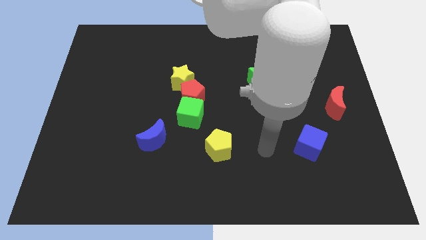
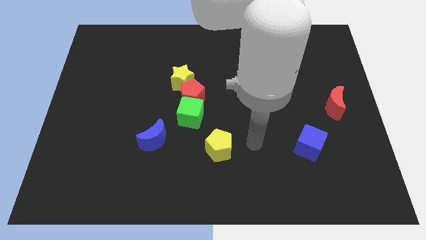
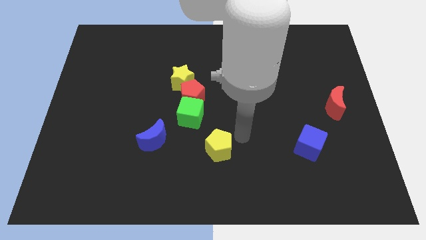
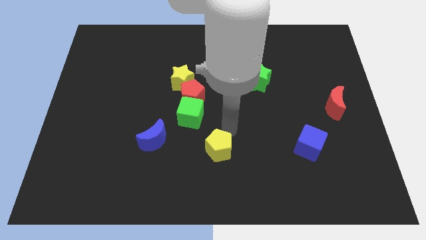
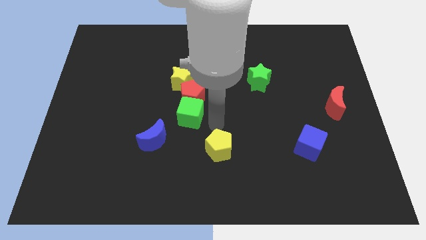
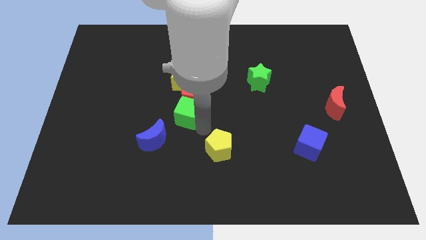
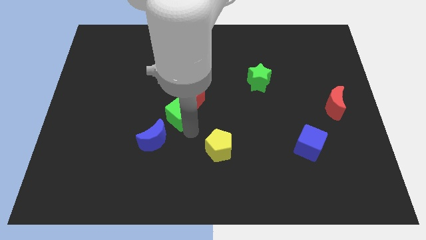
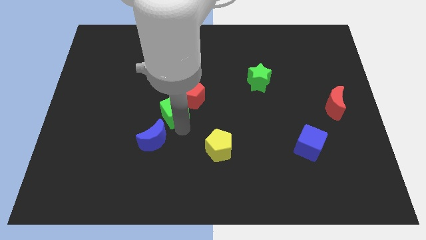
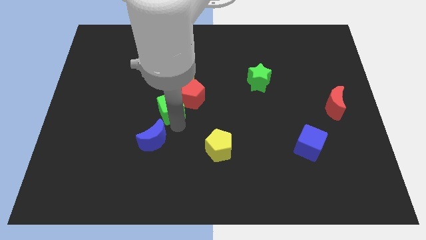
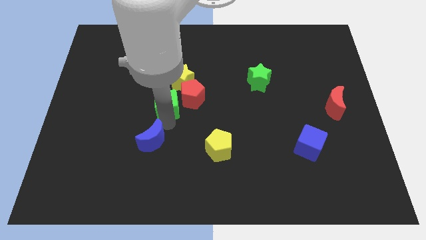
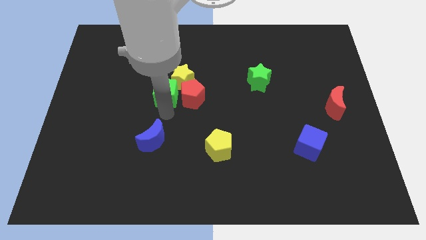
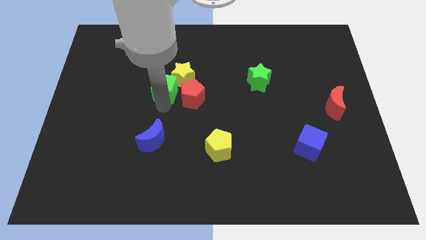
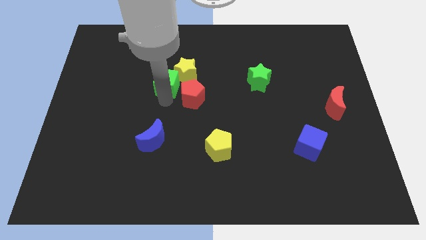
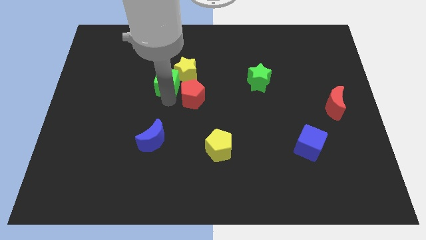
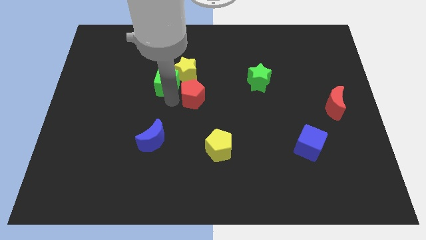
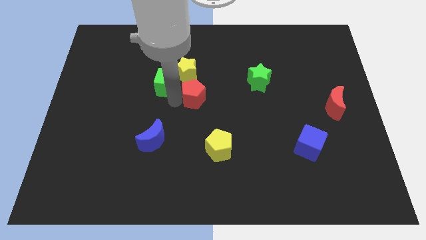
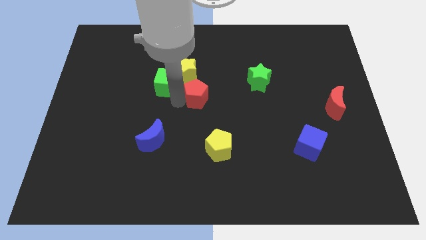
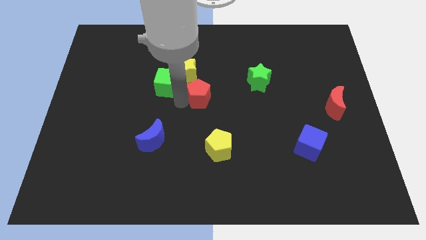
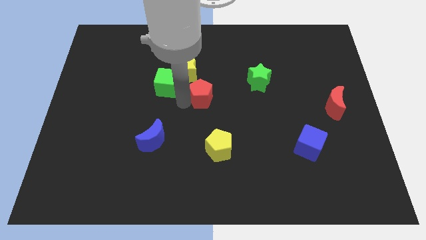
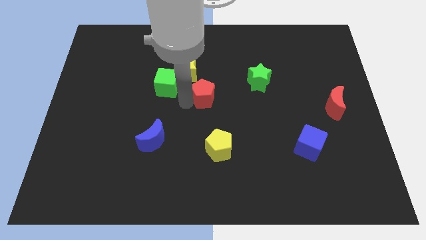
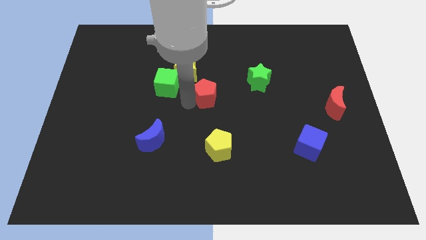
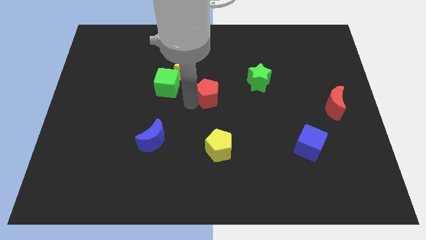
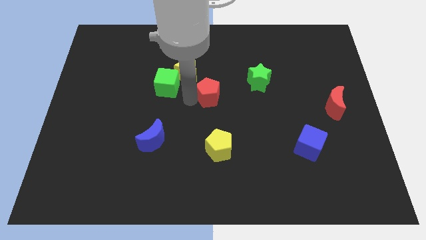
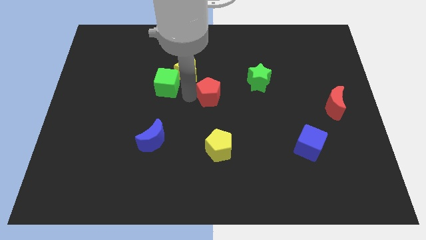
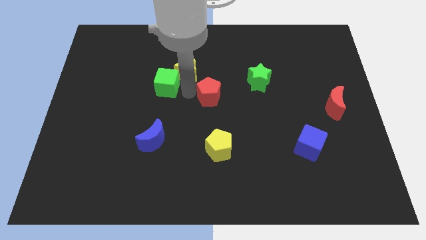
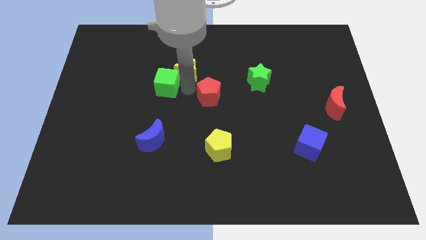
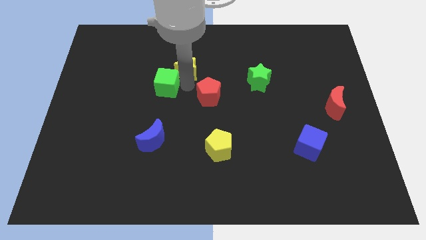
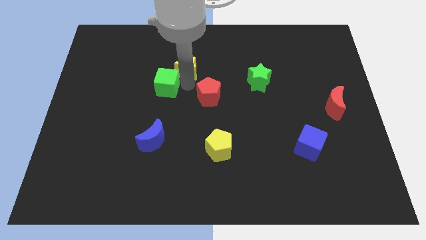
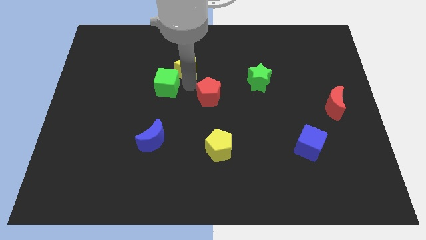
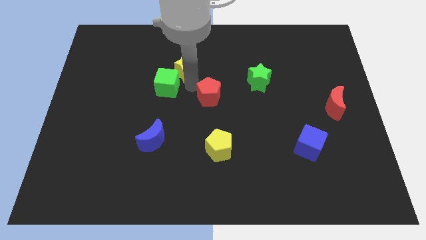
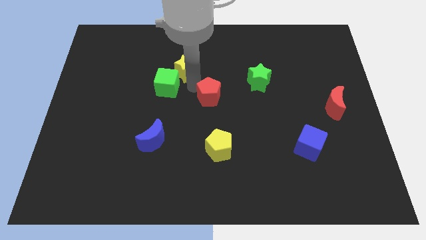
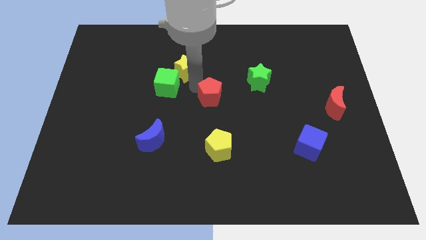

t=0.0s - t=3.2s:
separate the red pentagon from the green cube and yellow star

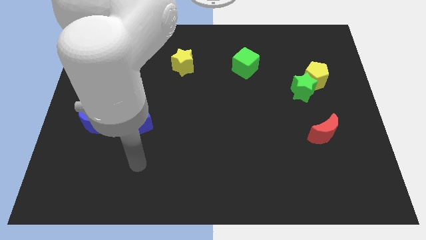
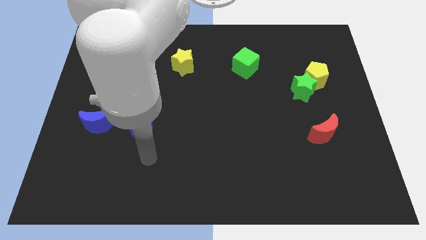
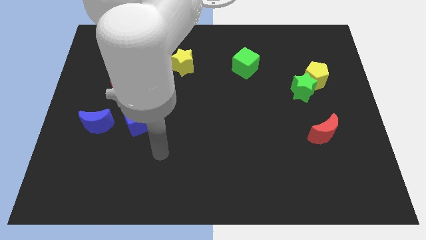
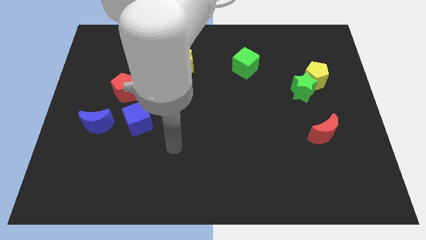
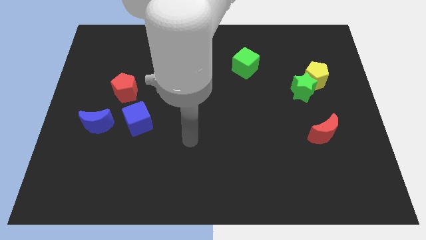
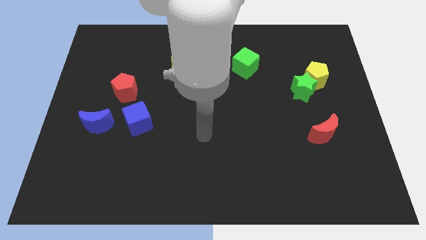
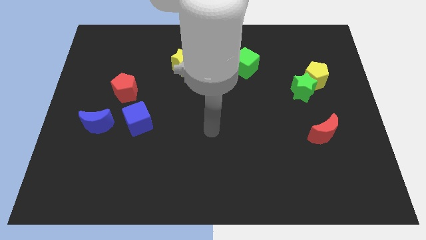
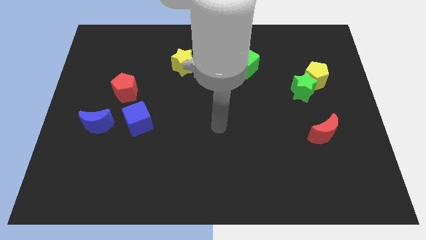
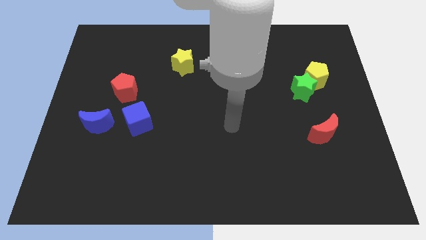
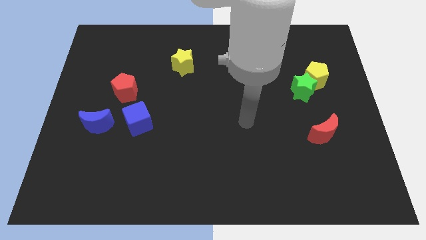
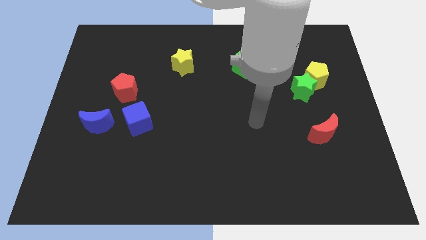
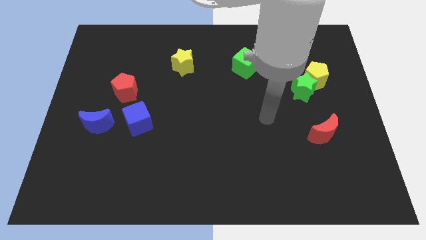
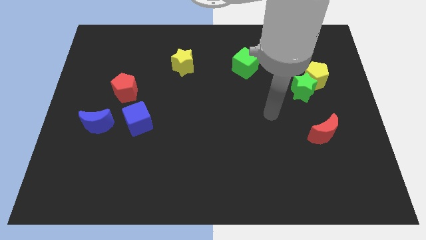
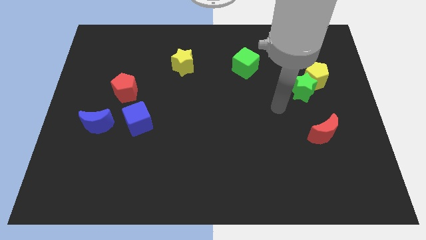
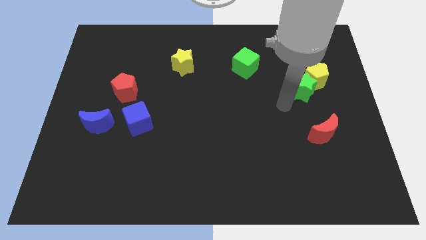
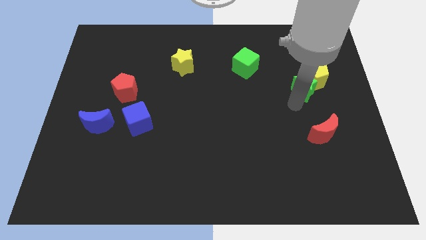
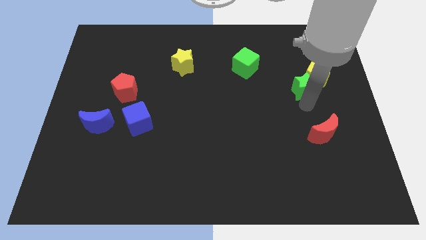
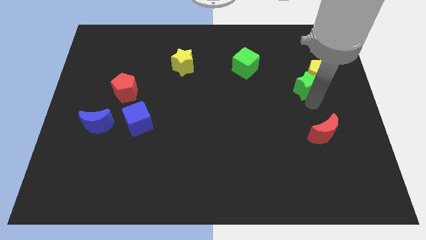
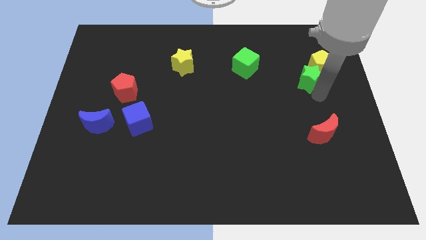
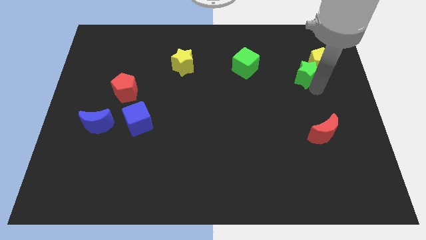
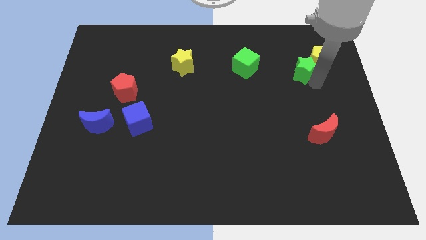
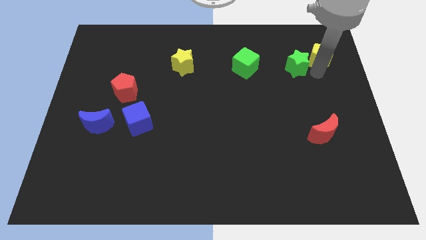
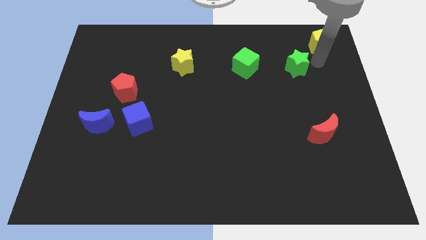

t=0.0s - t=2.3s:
separate the green star from the yellow pentagon

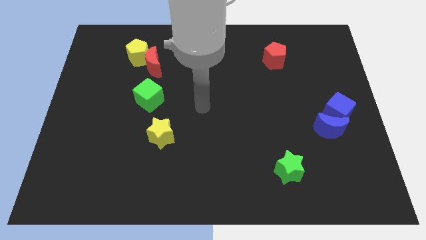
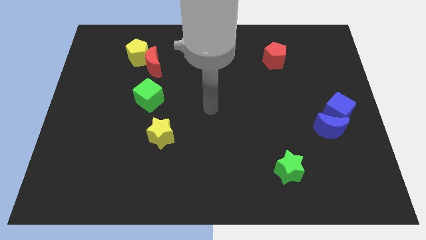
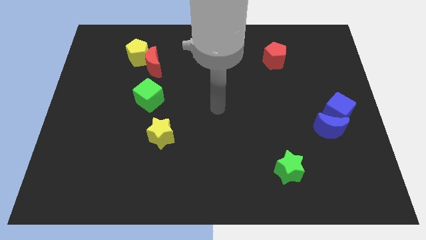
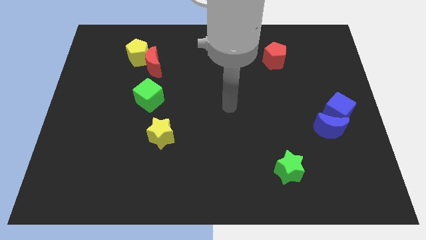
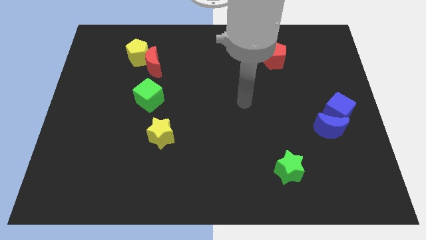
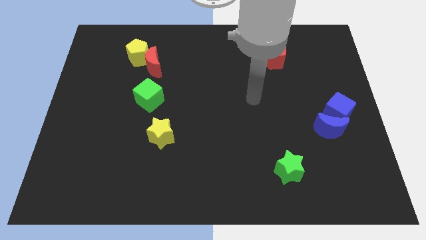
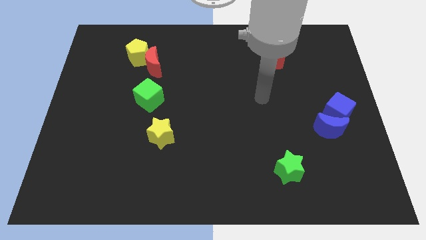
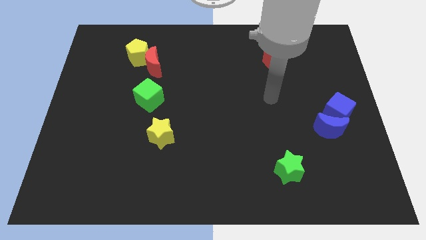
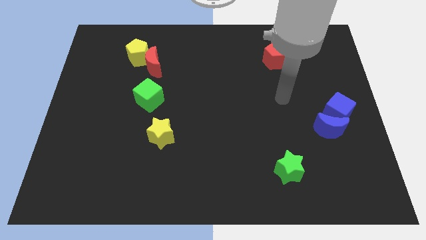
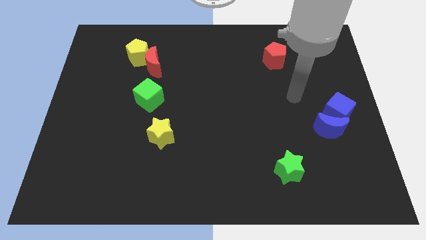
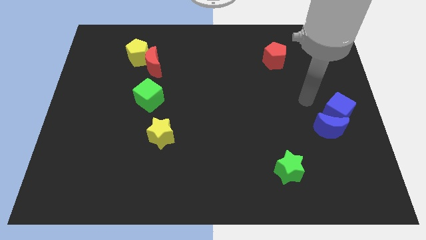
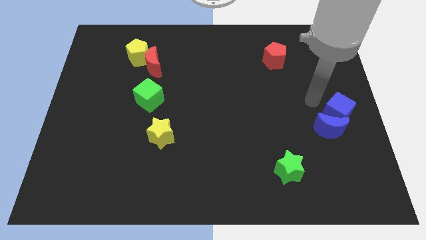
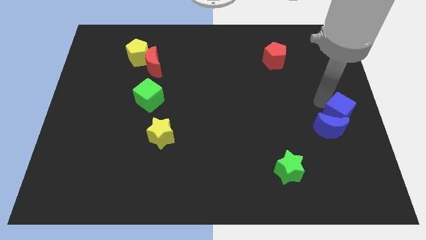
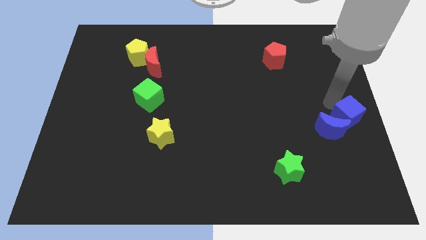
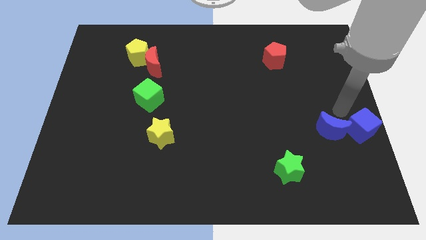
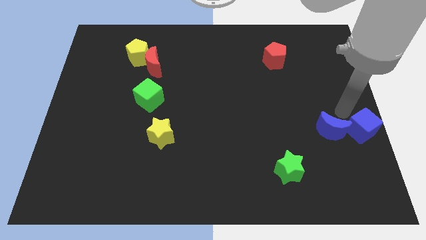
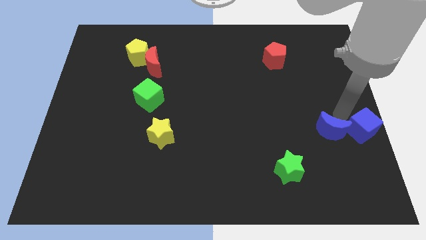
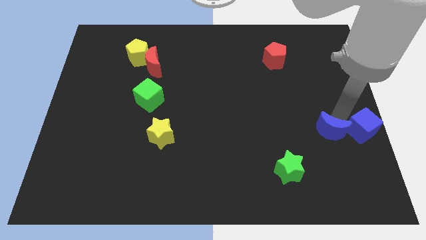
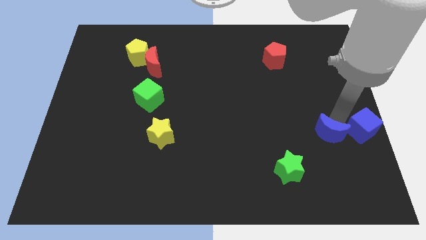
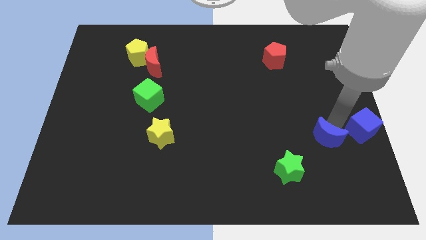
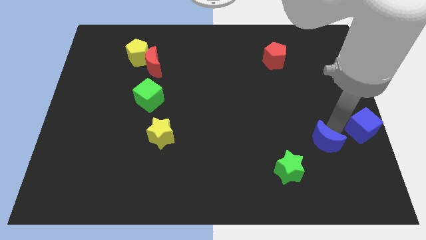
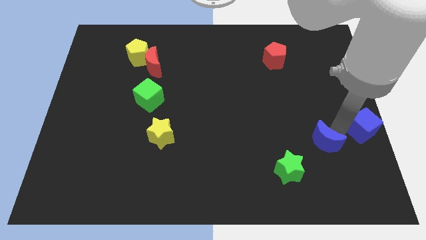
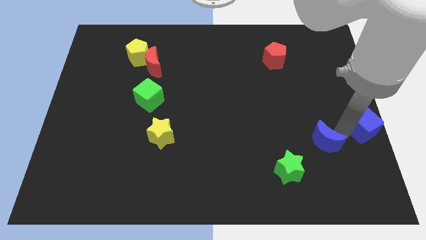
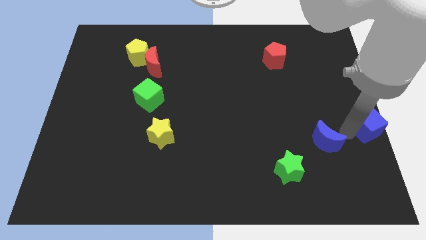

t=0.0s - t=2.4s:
pull the blue moon apart from the blue cube

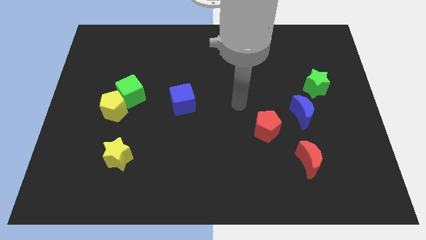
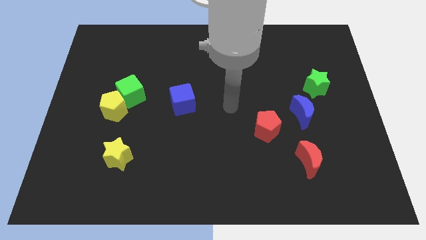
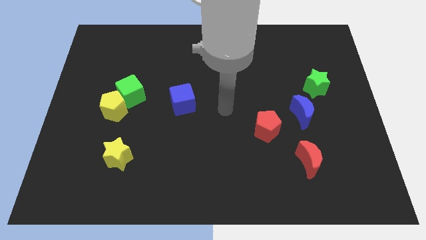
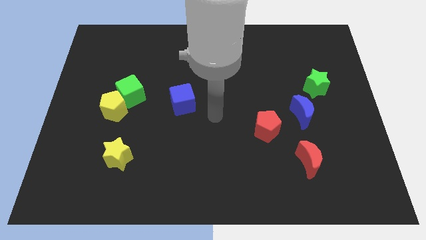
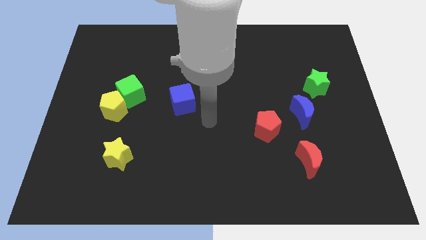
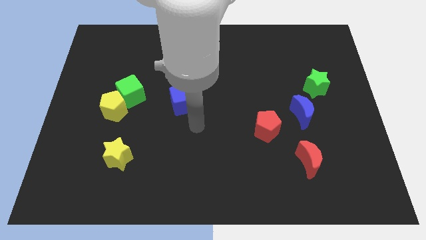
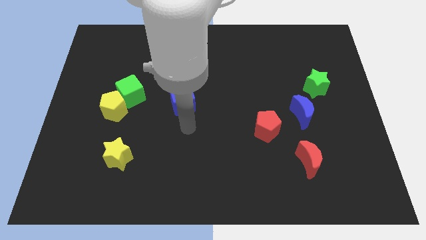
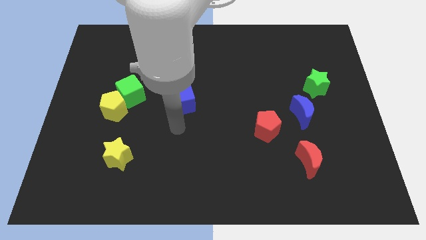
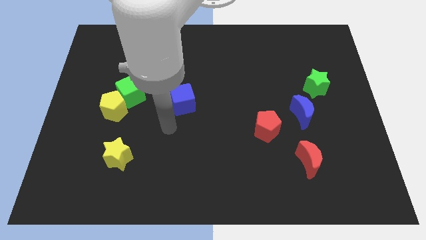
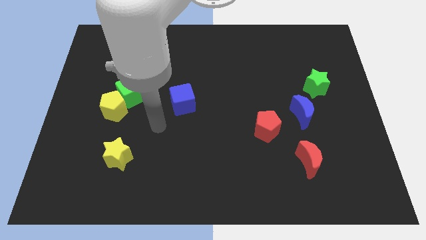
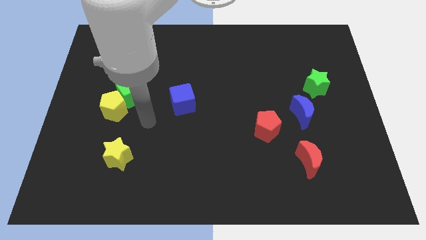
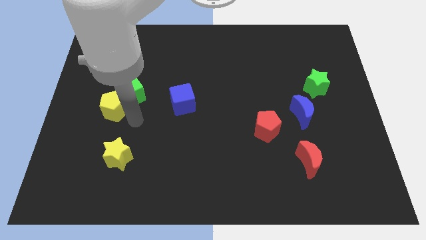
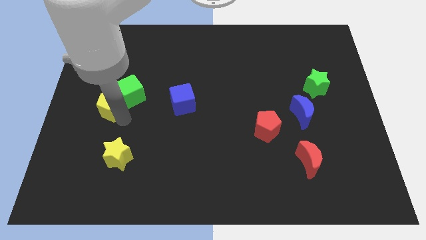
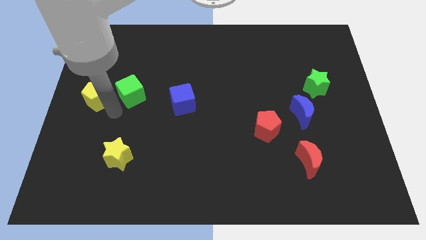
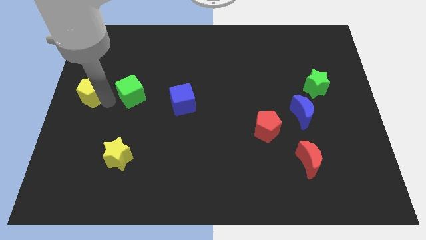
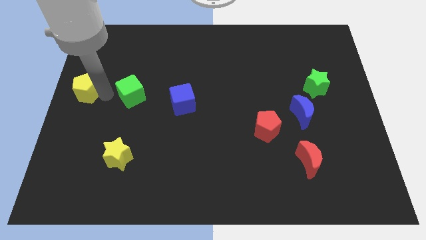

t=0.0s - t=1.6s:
pull the green cube apart from the yellow pentagon
